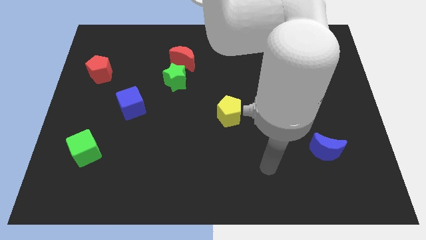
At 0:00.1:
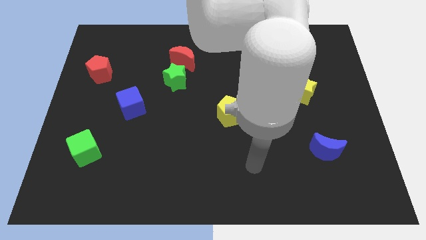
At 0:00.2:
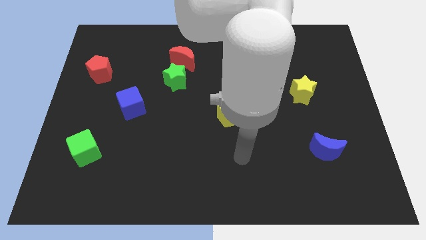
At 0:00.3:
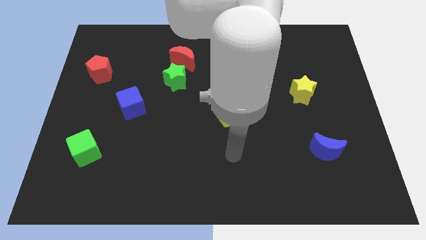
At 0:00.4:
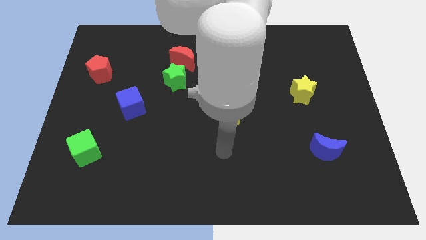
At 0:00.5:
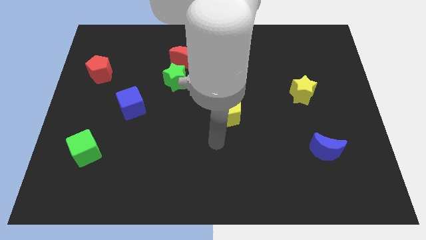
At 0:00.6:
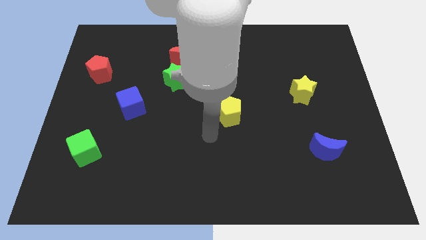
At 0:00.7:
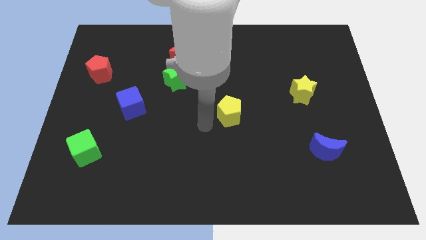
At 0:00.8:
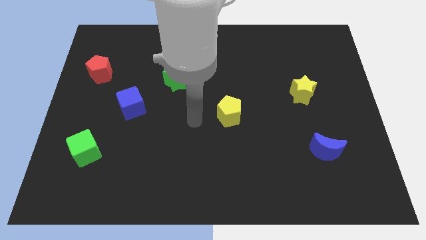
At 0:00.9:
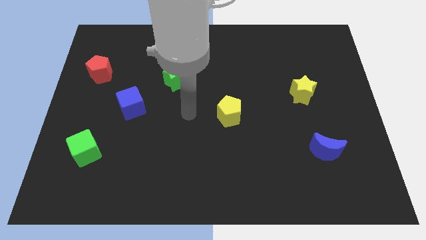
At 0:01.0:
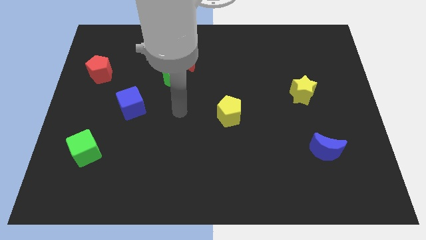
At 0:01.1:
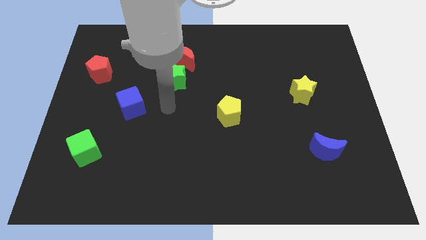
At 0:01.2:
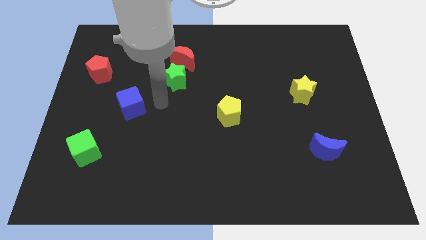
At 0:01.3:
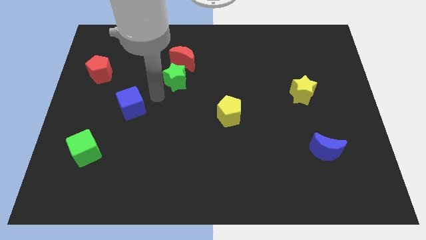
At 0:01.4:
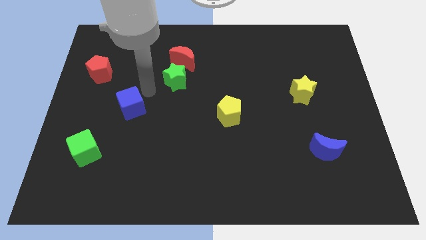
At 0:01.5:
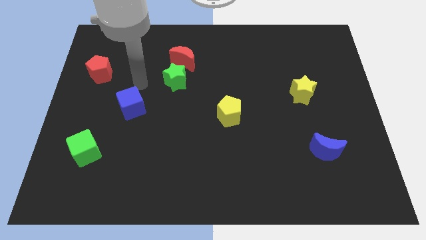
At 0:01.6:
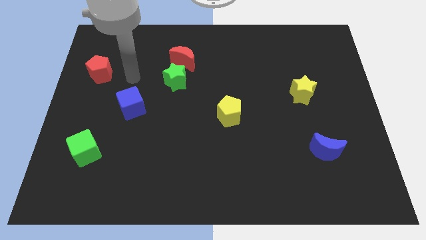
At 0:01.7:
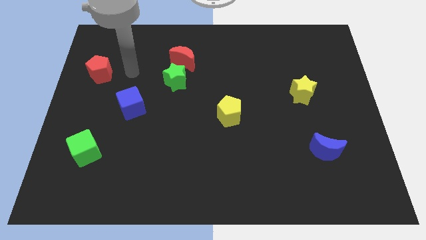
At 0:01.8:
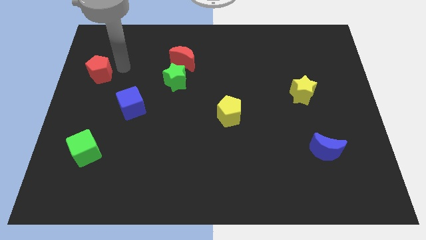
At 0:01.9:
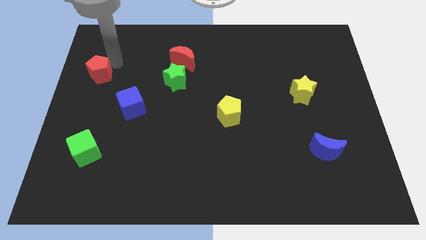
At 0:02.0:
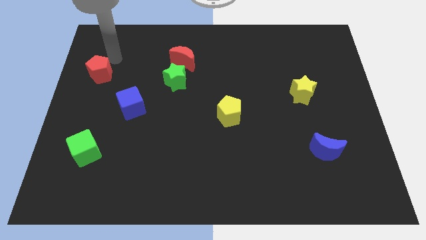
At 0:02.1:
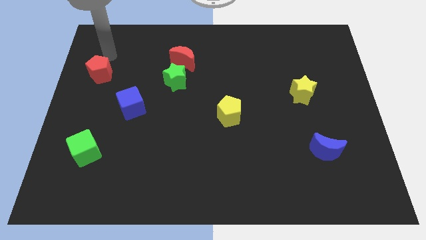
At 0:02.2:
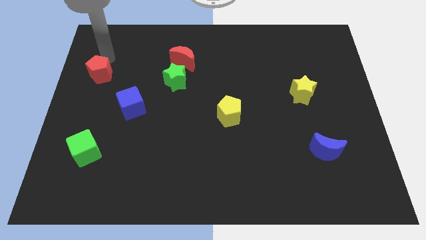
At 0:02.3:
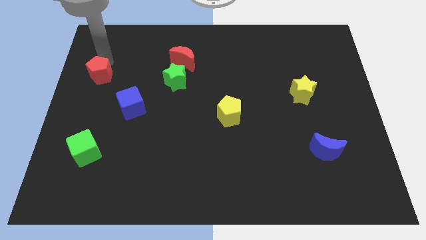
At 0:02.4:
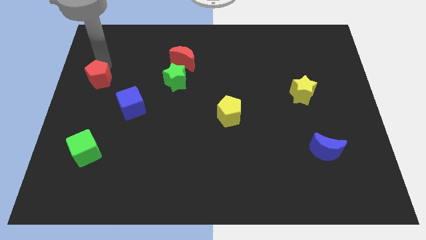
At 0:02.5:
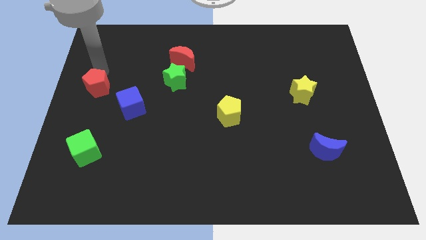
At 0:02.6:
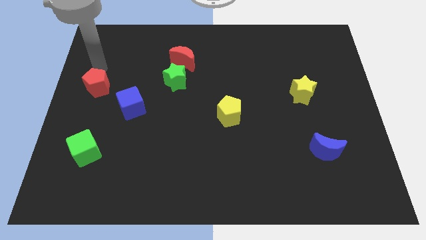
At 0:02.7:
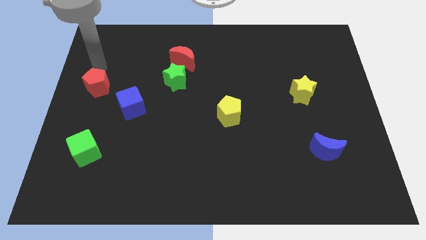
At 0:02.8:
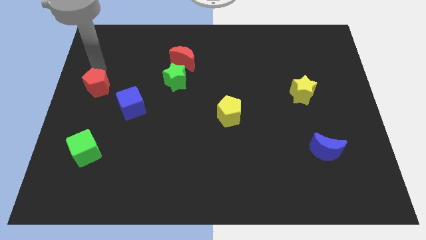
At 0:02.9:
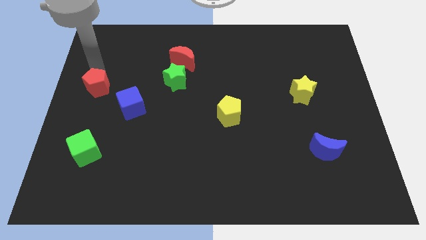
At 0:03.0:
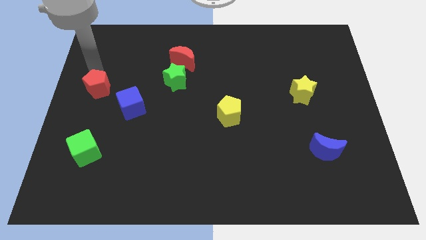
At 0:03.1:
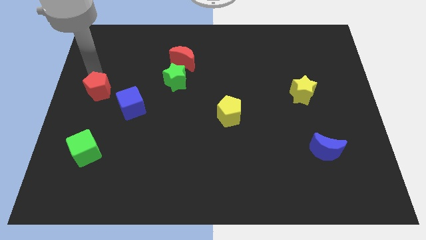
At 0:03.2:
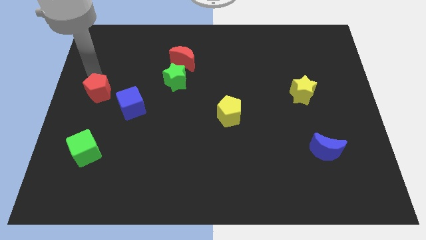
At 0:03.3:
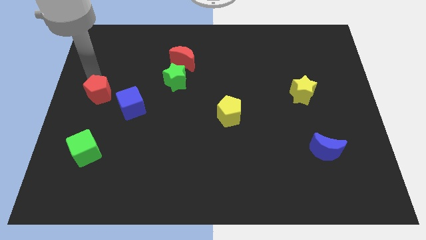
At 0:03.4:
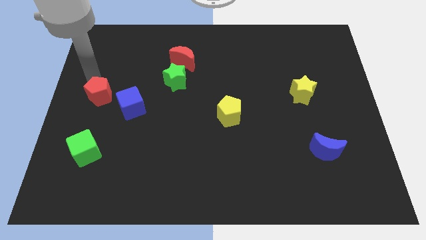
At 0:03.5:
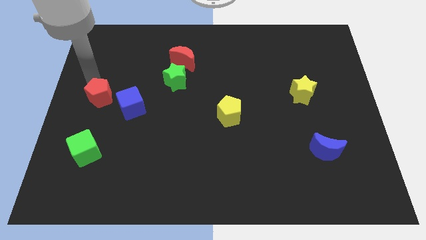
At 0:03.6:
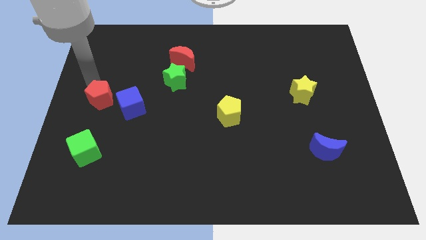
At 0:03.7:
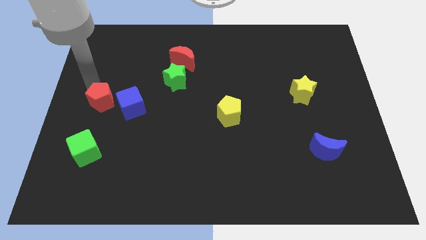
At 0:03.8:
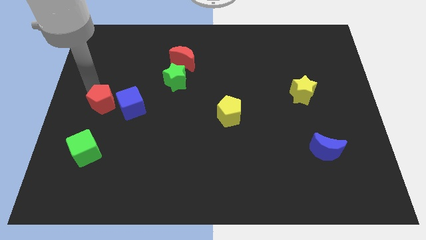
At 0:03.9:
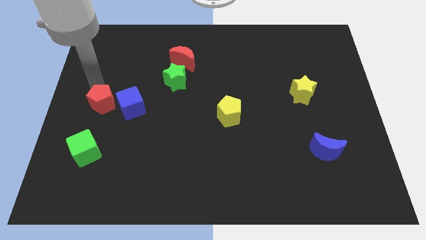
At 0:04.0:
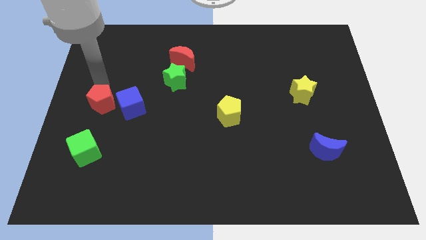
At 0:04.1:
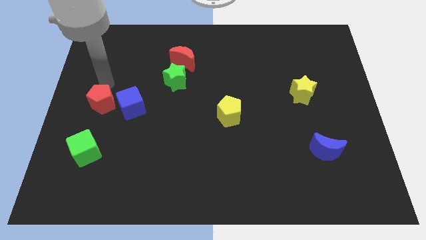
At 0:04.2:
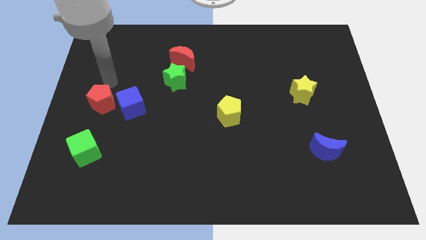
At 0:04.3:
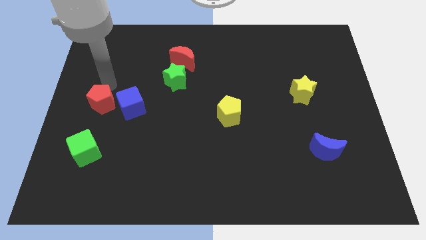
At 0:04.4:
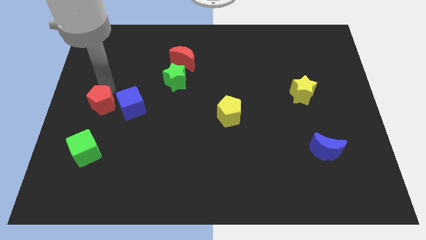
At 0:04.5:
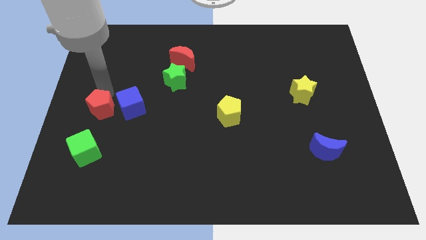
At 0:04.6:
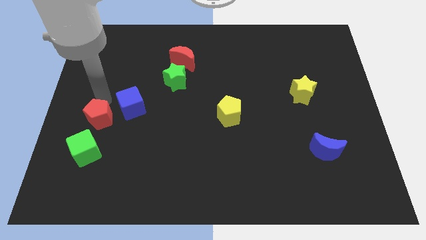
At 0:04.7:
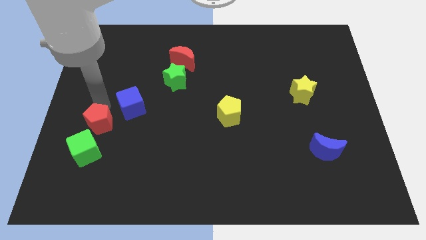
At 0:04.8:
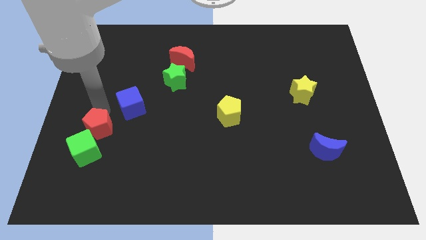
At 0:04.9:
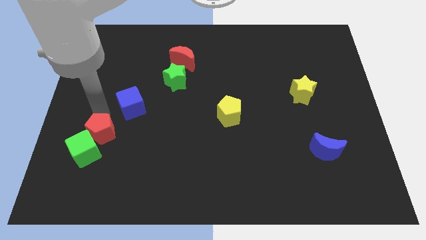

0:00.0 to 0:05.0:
slide the red pentagon close to the green cube

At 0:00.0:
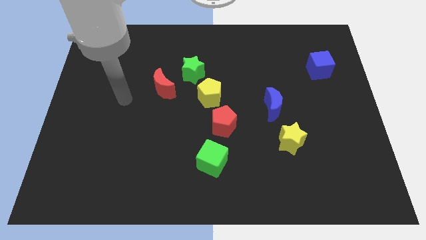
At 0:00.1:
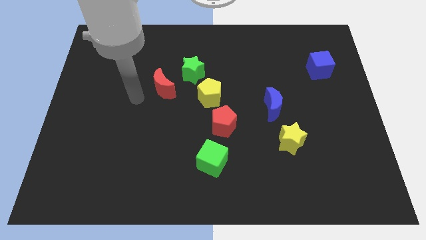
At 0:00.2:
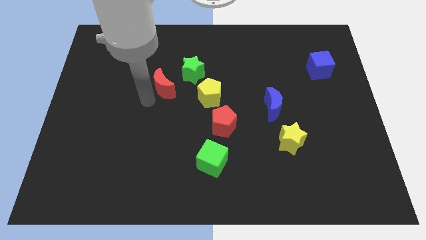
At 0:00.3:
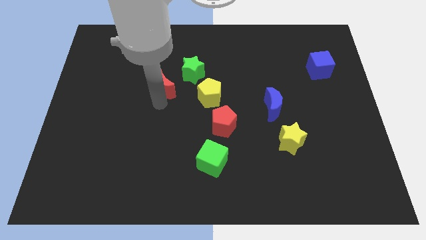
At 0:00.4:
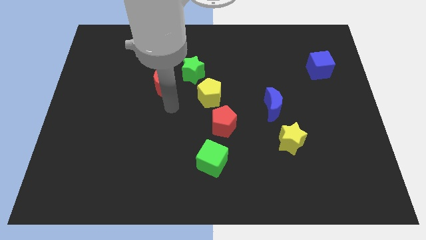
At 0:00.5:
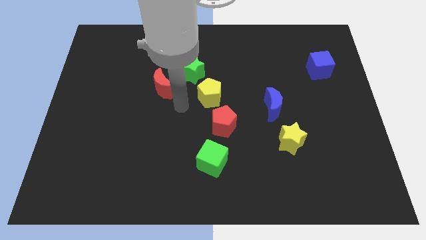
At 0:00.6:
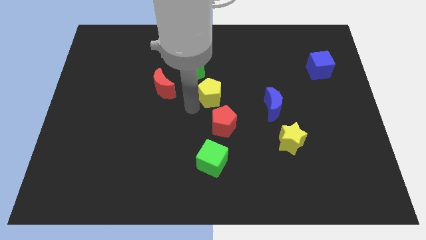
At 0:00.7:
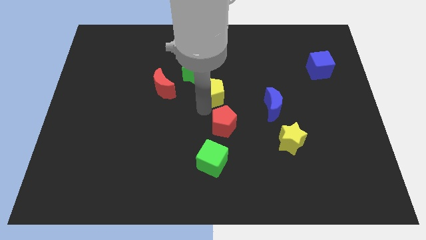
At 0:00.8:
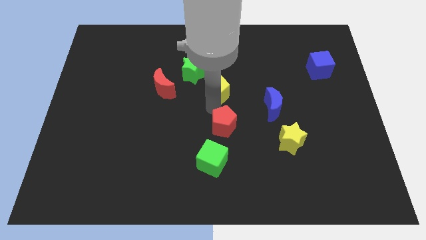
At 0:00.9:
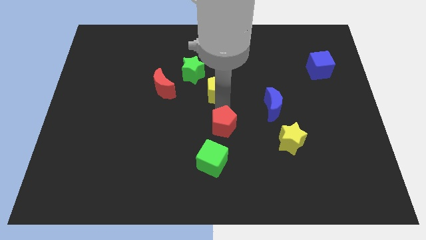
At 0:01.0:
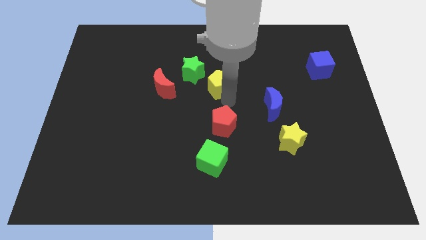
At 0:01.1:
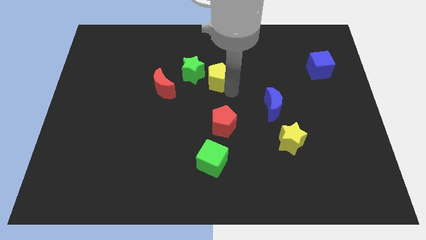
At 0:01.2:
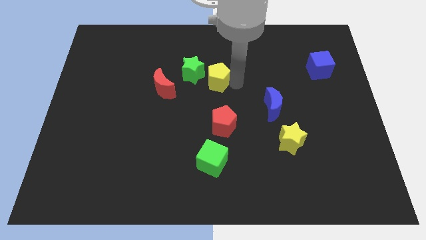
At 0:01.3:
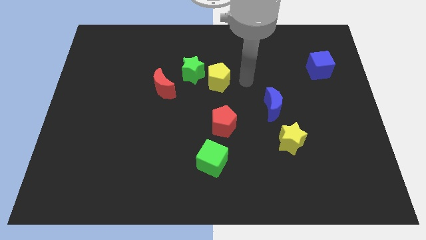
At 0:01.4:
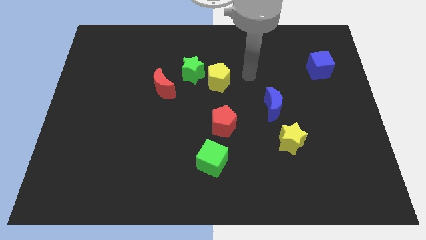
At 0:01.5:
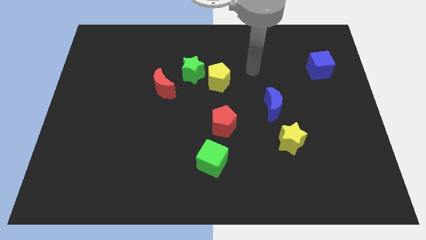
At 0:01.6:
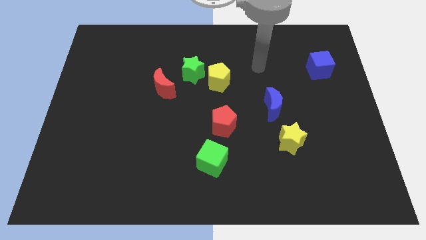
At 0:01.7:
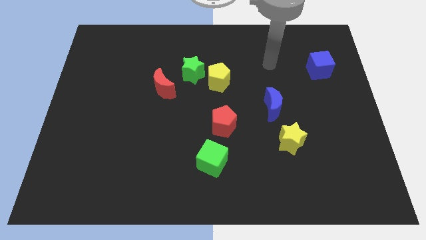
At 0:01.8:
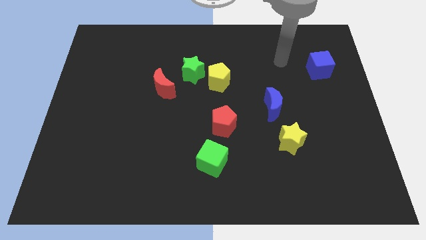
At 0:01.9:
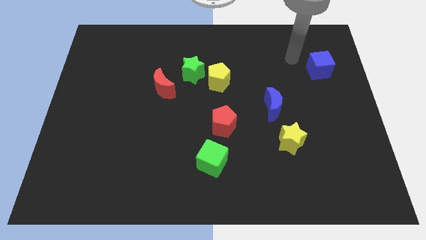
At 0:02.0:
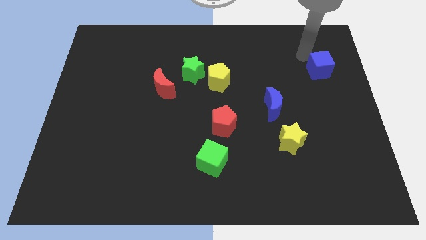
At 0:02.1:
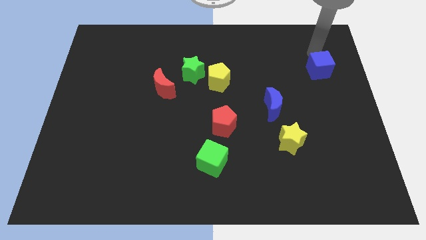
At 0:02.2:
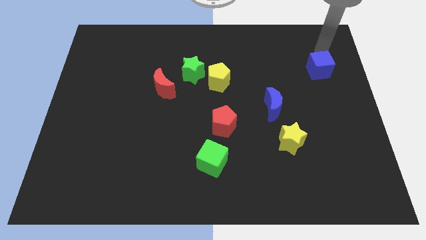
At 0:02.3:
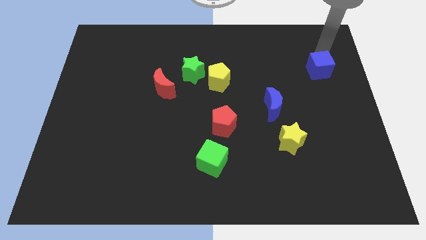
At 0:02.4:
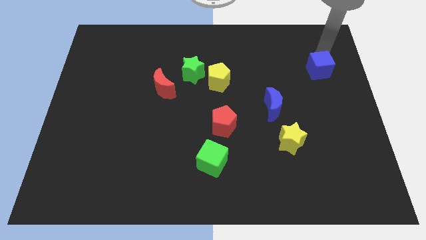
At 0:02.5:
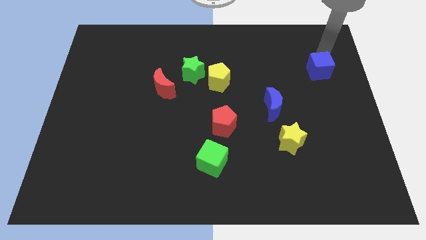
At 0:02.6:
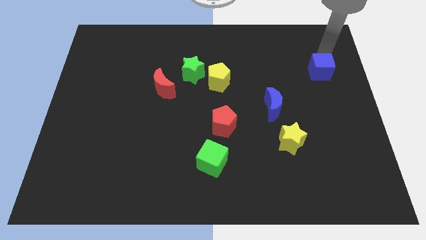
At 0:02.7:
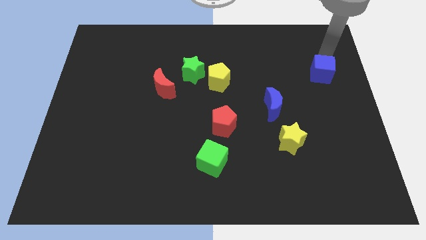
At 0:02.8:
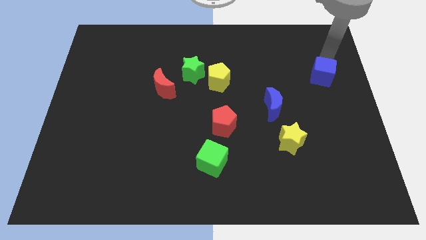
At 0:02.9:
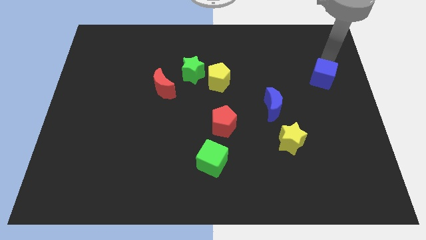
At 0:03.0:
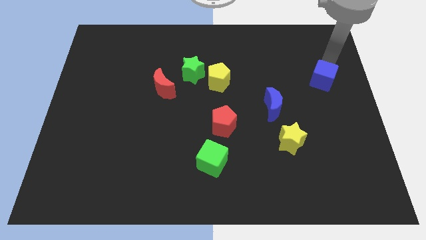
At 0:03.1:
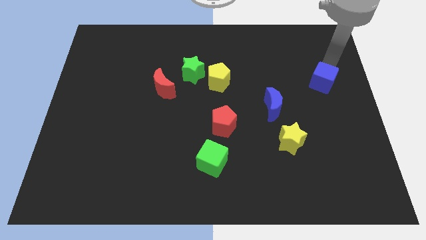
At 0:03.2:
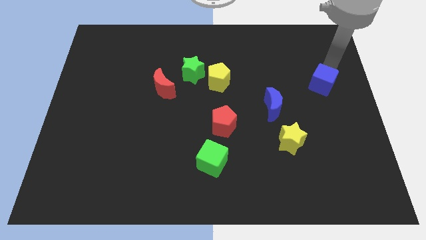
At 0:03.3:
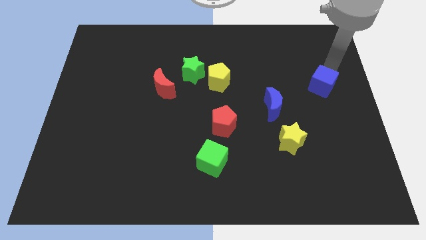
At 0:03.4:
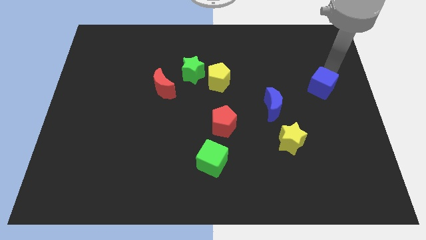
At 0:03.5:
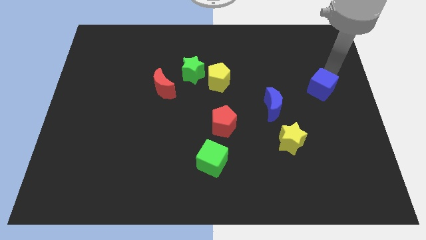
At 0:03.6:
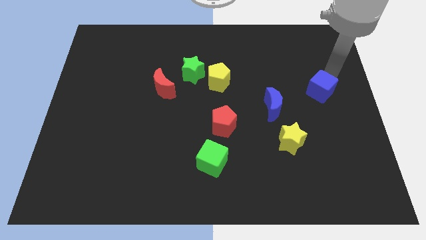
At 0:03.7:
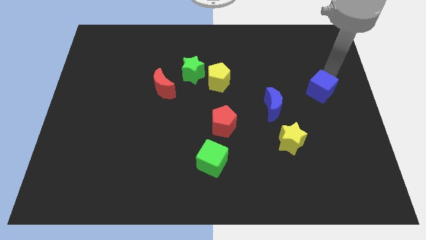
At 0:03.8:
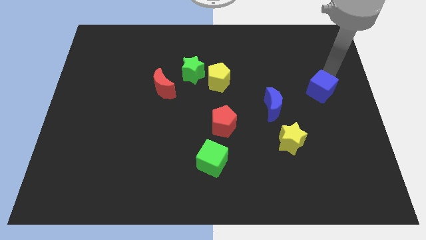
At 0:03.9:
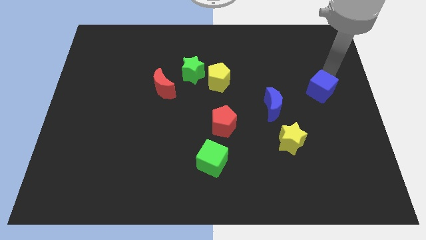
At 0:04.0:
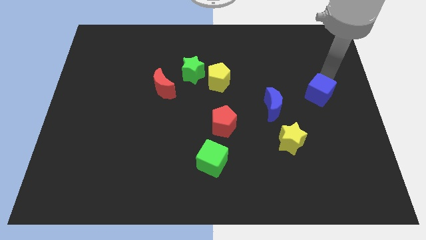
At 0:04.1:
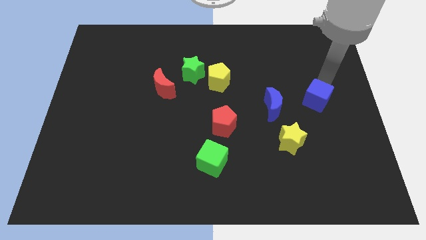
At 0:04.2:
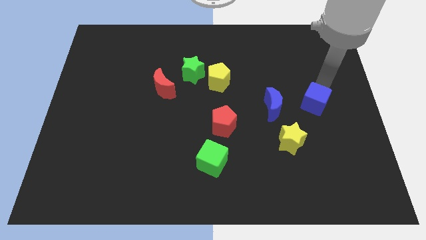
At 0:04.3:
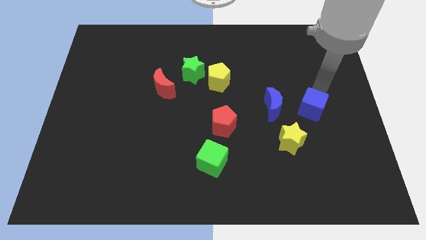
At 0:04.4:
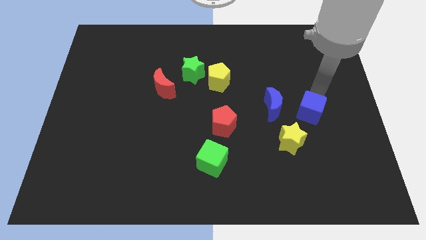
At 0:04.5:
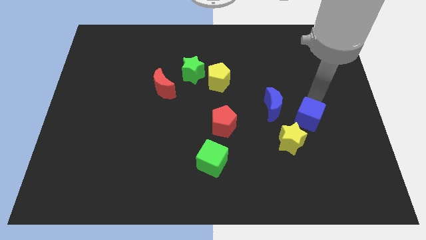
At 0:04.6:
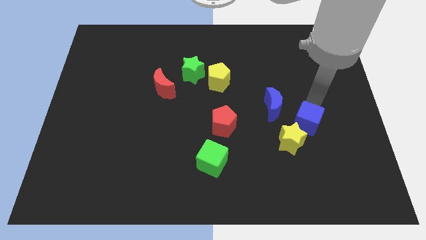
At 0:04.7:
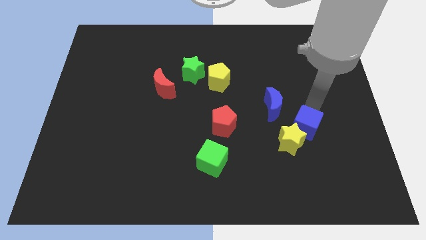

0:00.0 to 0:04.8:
move the blue cube towards the yellow star
